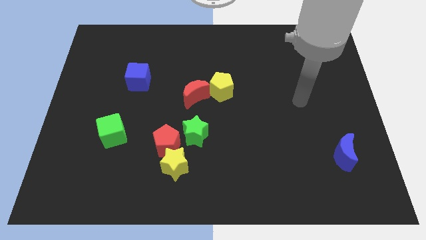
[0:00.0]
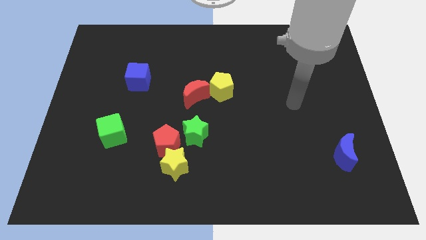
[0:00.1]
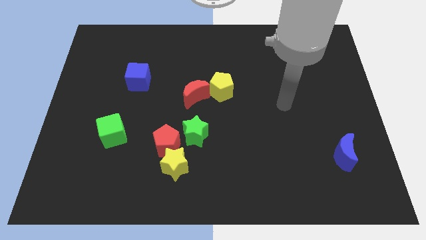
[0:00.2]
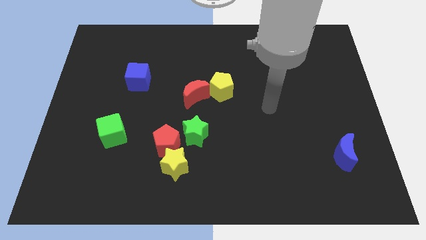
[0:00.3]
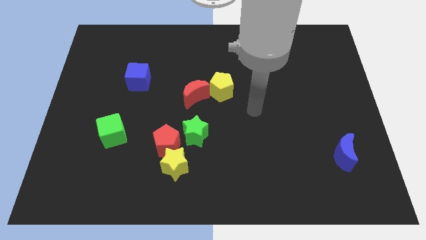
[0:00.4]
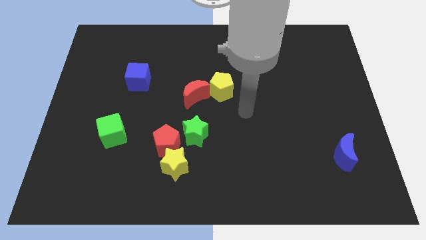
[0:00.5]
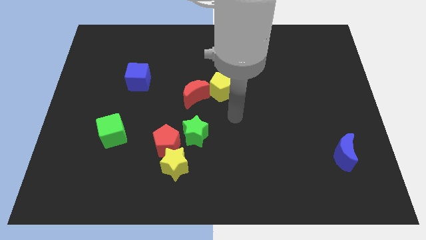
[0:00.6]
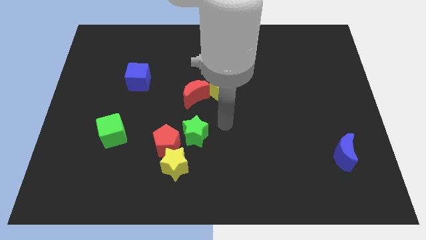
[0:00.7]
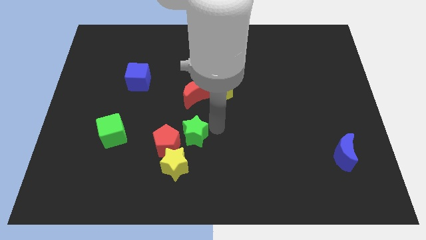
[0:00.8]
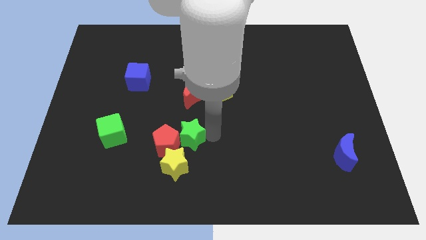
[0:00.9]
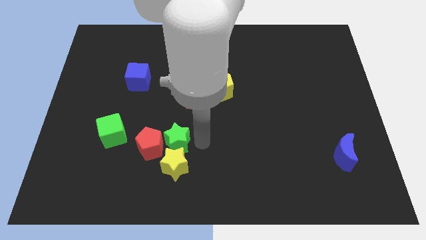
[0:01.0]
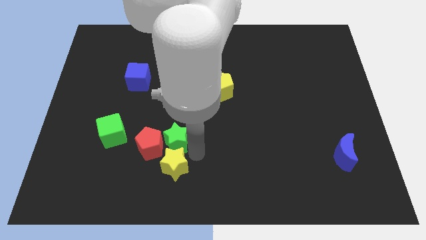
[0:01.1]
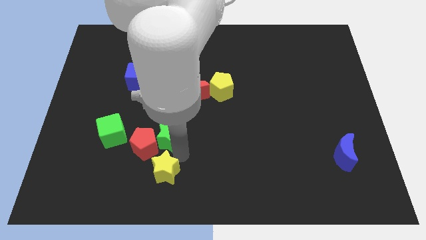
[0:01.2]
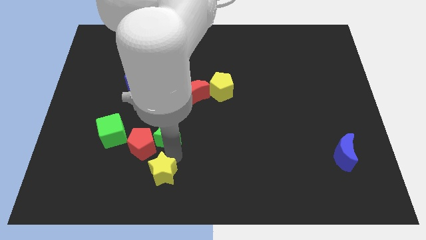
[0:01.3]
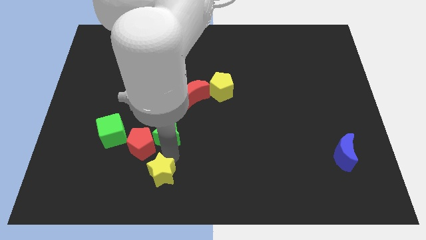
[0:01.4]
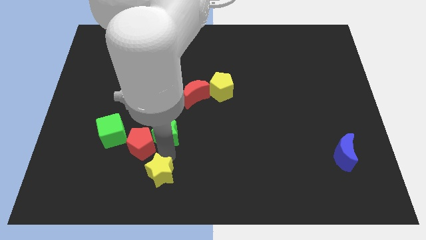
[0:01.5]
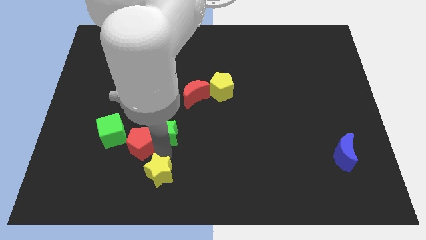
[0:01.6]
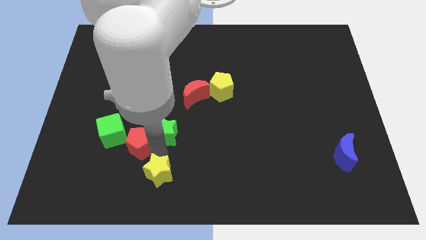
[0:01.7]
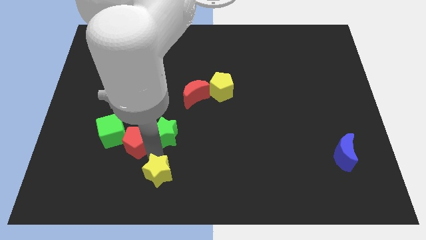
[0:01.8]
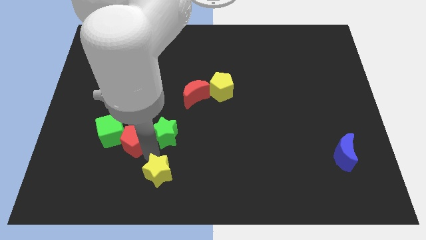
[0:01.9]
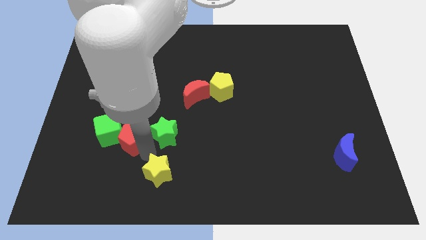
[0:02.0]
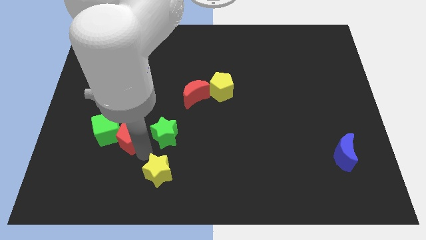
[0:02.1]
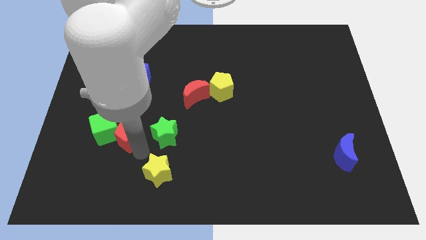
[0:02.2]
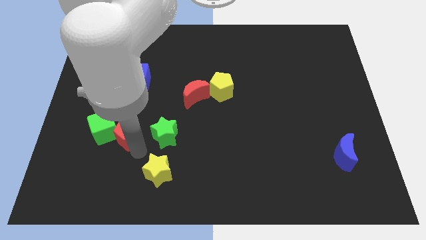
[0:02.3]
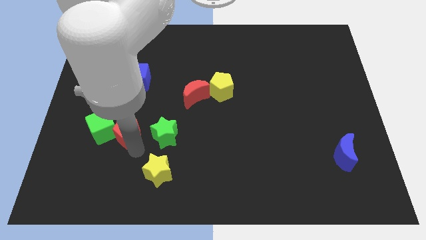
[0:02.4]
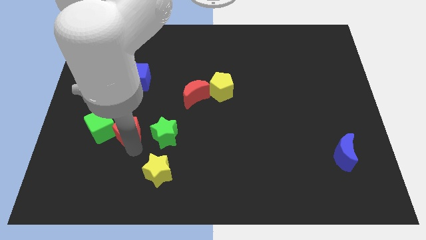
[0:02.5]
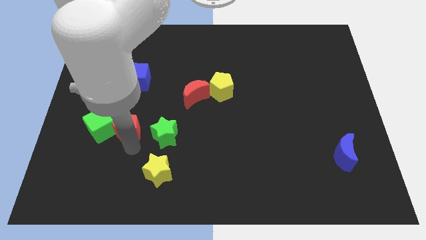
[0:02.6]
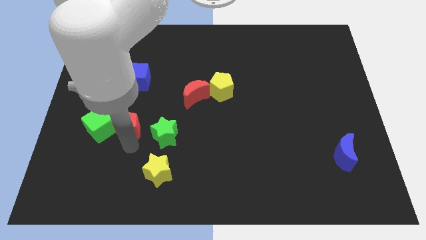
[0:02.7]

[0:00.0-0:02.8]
move the red pentagon away from the yellow star and green star

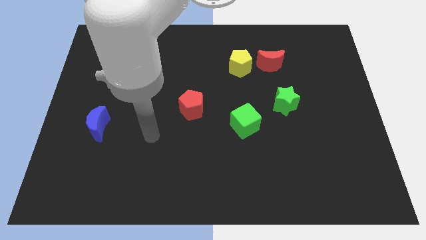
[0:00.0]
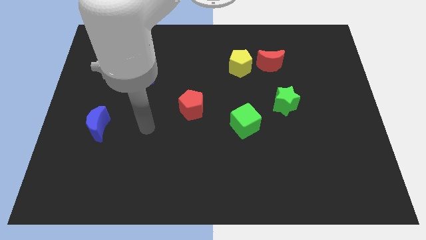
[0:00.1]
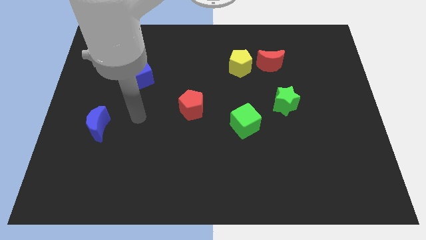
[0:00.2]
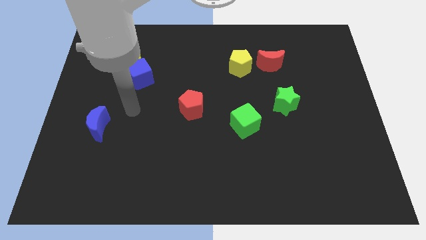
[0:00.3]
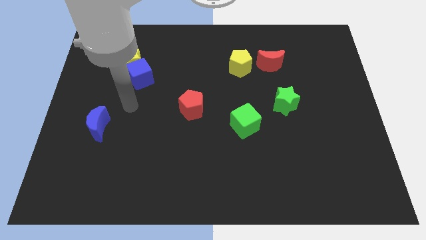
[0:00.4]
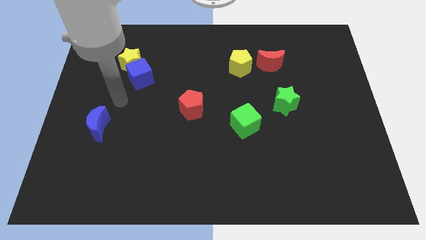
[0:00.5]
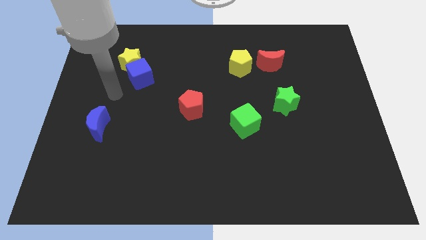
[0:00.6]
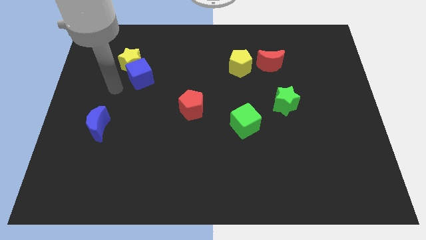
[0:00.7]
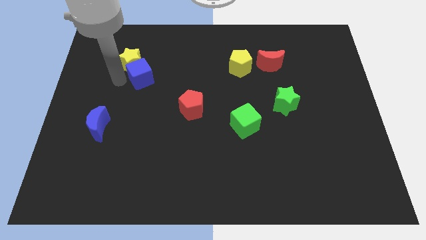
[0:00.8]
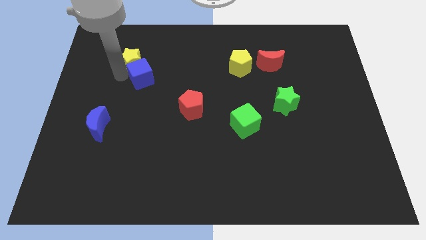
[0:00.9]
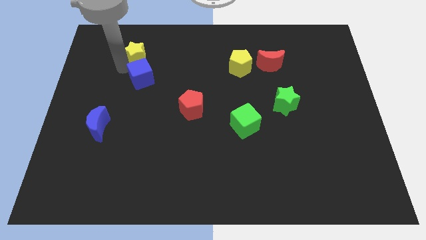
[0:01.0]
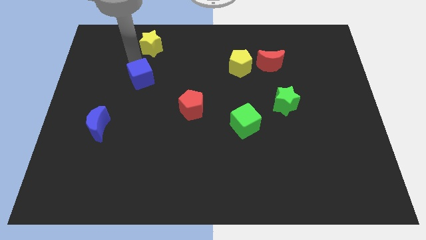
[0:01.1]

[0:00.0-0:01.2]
move the blue cube away from the yellow star

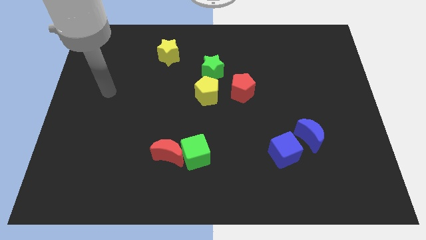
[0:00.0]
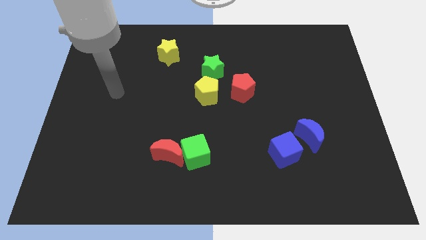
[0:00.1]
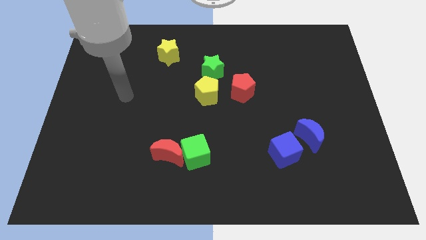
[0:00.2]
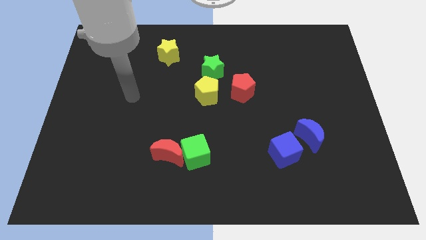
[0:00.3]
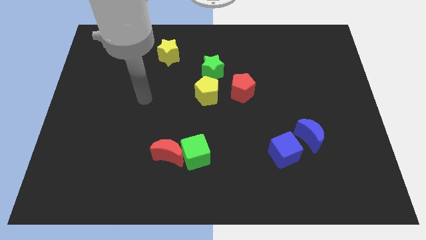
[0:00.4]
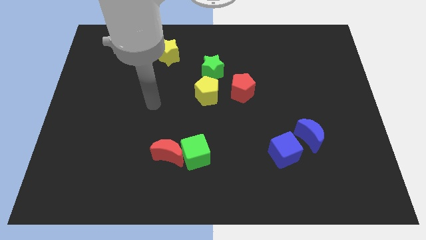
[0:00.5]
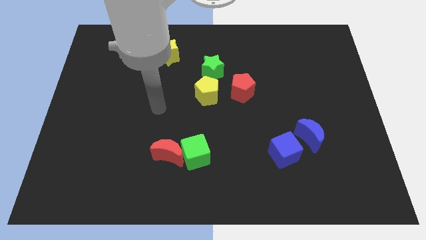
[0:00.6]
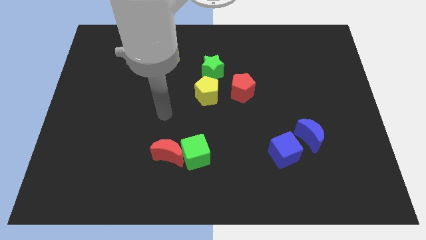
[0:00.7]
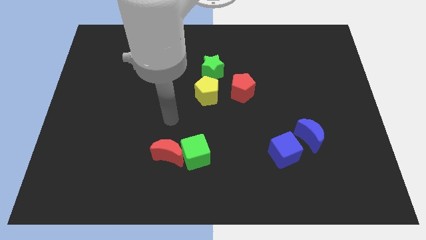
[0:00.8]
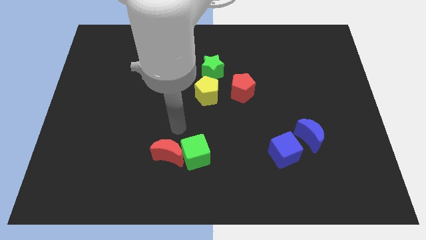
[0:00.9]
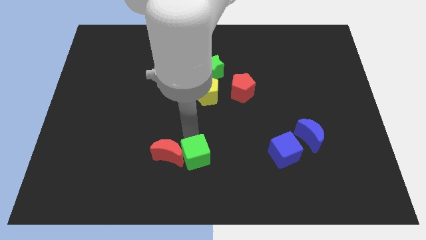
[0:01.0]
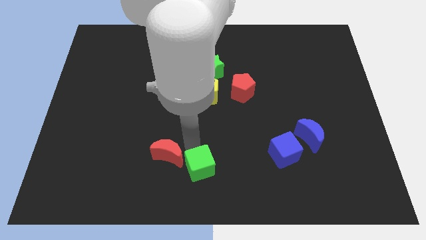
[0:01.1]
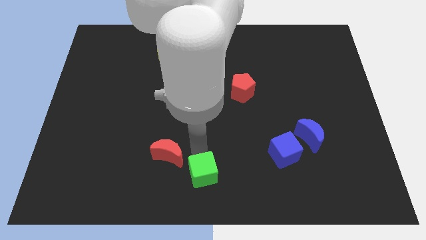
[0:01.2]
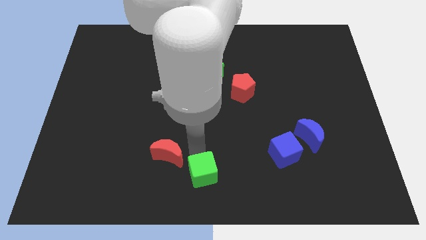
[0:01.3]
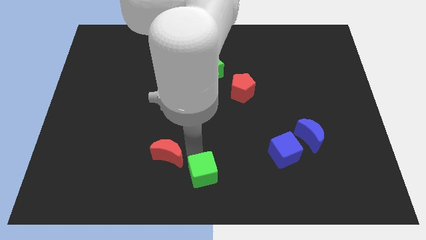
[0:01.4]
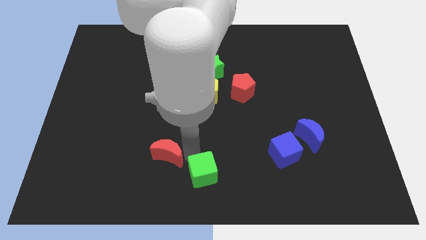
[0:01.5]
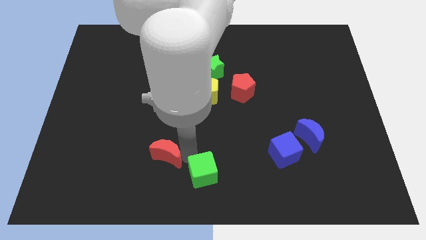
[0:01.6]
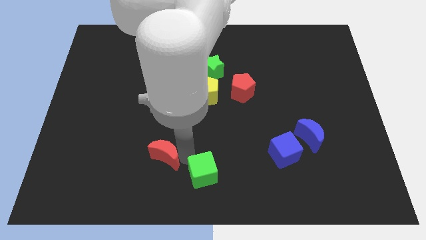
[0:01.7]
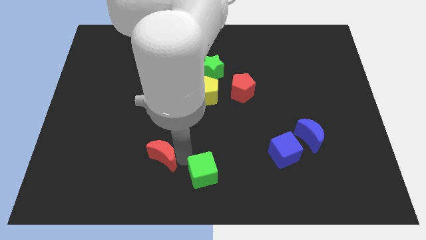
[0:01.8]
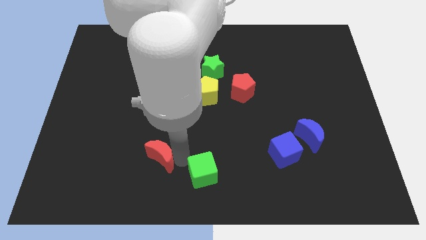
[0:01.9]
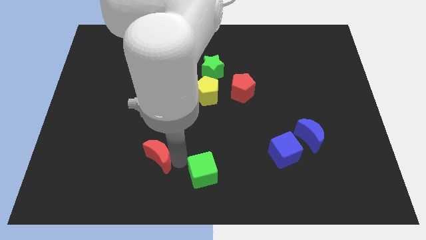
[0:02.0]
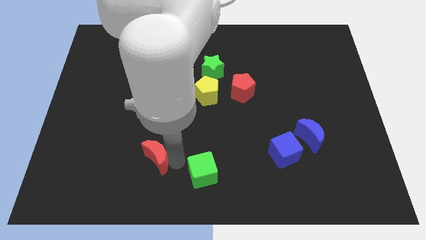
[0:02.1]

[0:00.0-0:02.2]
pull the red moon apart from the green cube

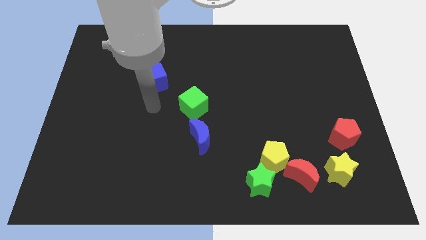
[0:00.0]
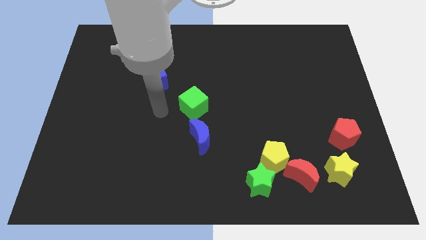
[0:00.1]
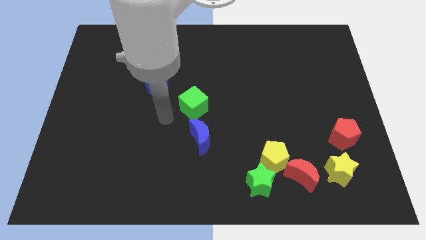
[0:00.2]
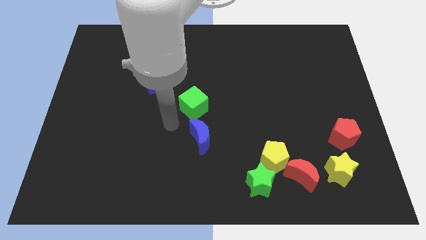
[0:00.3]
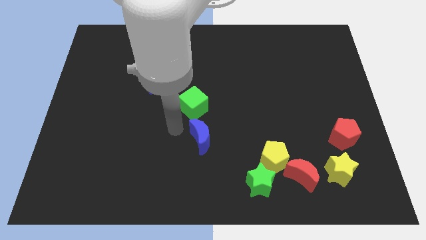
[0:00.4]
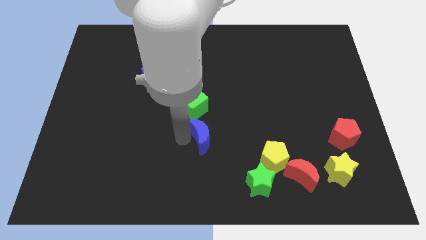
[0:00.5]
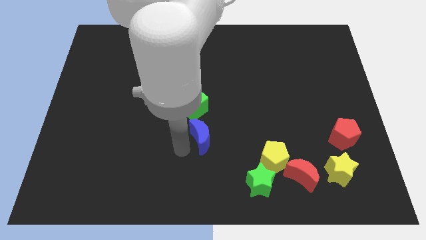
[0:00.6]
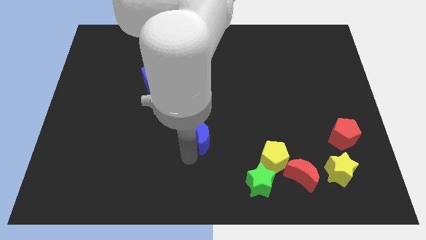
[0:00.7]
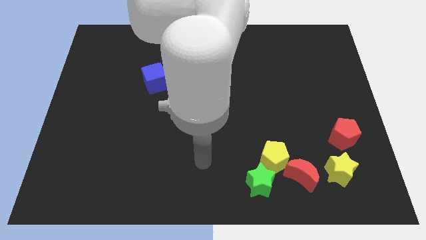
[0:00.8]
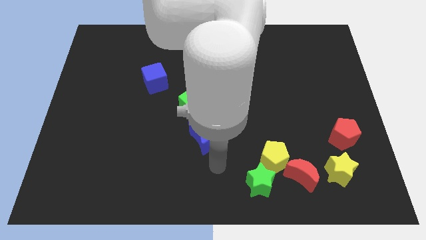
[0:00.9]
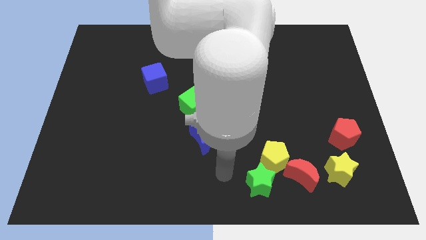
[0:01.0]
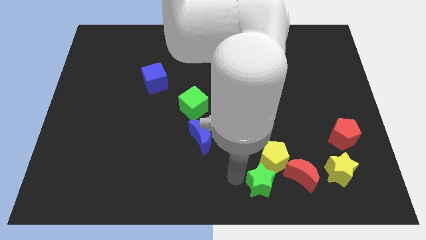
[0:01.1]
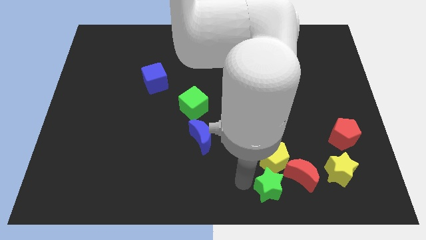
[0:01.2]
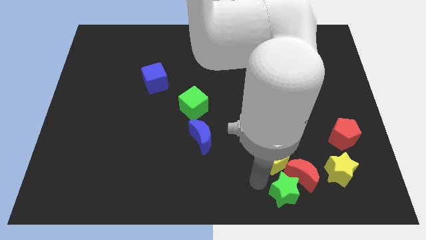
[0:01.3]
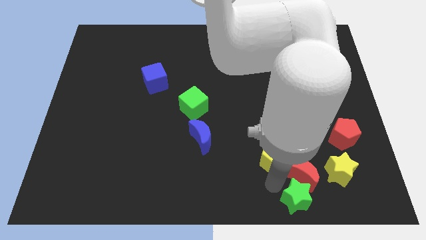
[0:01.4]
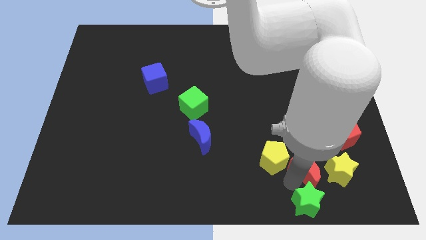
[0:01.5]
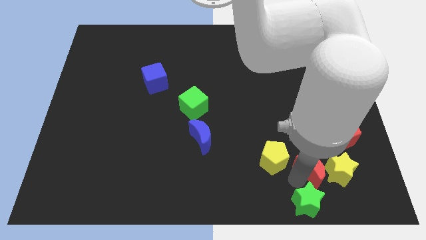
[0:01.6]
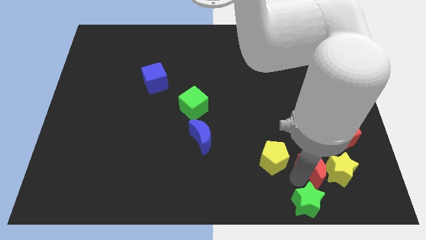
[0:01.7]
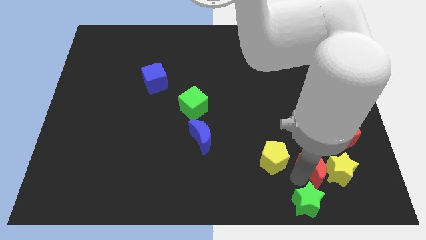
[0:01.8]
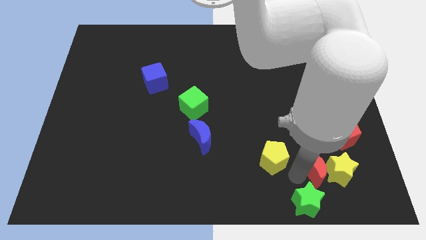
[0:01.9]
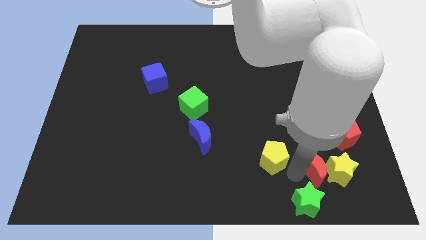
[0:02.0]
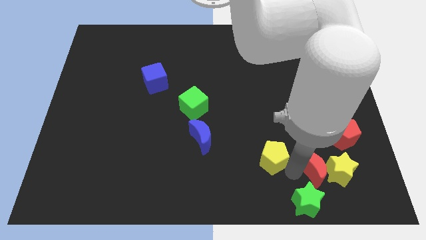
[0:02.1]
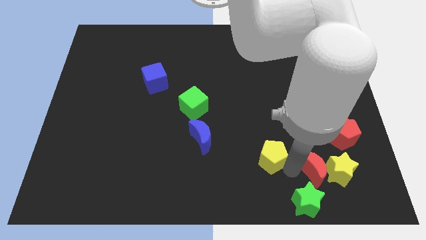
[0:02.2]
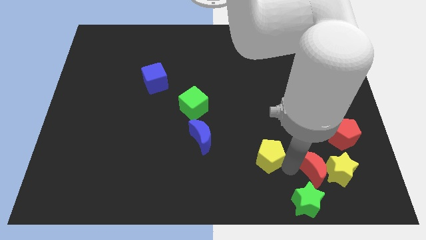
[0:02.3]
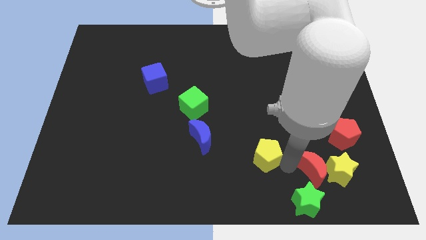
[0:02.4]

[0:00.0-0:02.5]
pull the yellow pentagon apart from the red moon and green star

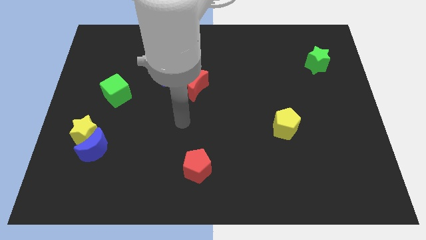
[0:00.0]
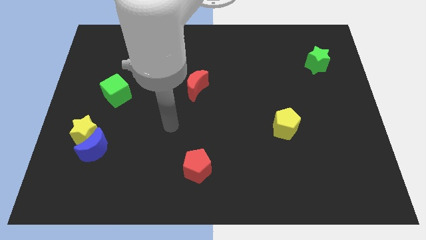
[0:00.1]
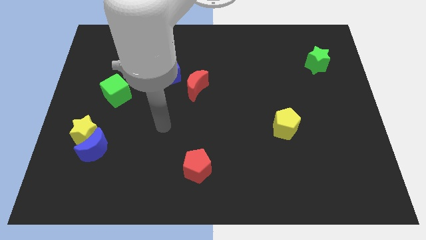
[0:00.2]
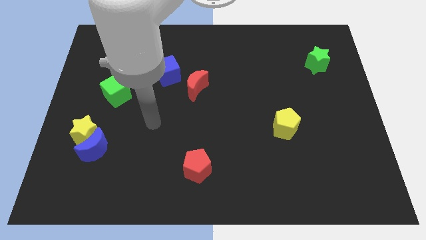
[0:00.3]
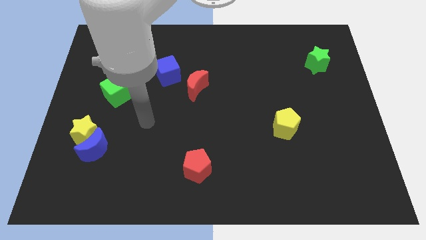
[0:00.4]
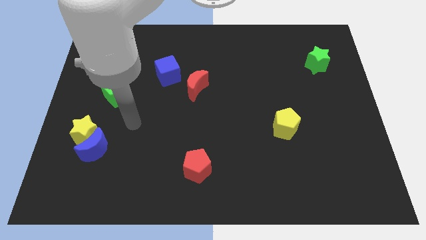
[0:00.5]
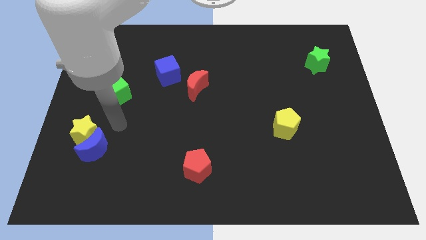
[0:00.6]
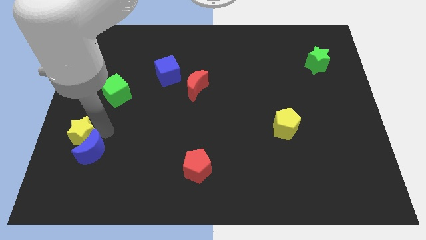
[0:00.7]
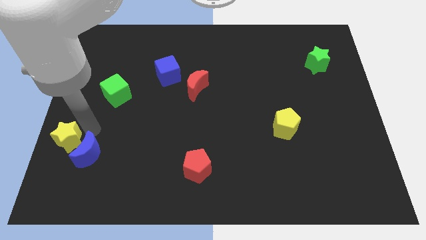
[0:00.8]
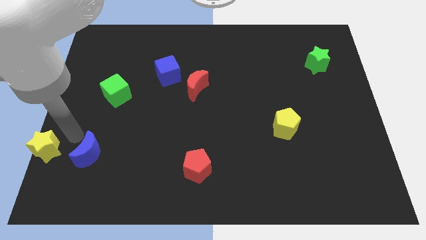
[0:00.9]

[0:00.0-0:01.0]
separate the blue moon from the yellow star
